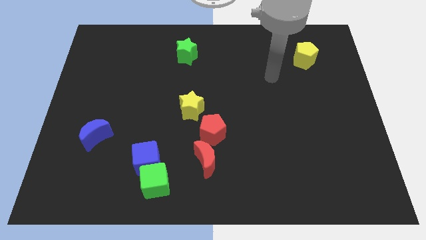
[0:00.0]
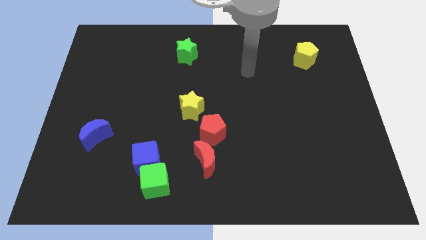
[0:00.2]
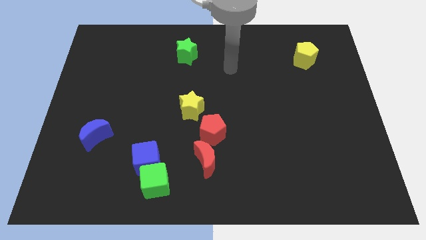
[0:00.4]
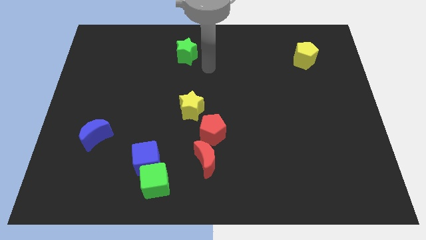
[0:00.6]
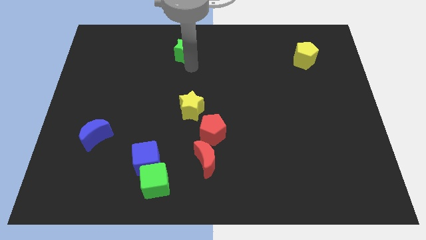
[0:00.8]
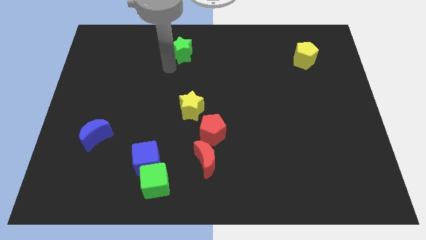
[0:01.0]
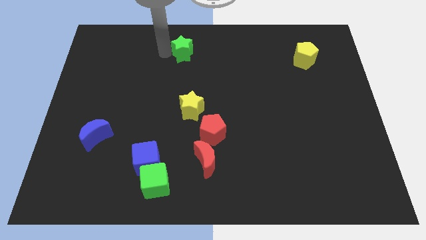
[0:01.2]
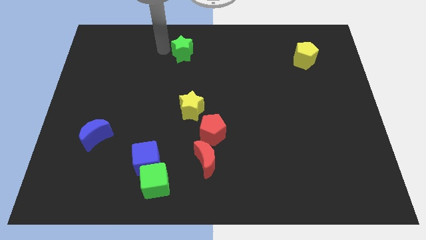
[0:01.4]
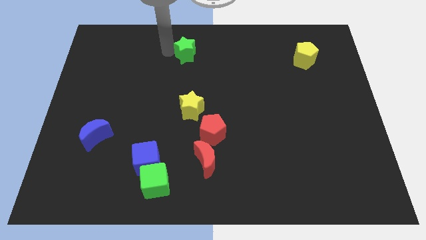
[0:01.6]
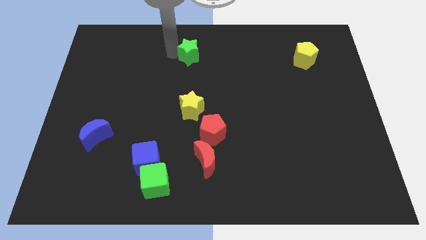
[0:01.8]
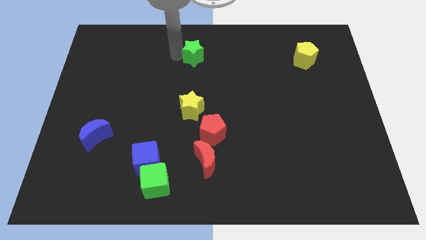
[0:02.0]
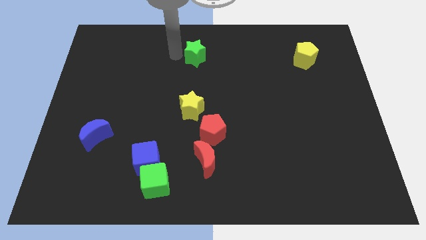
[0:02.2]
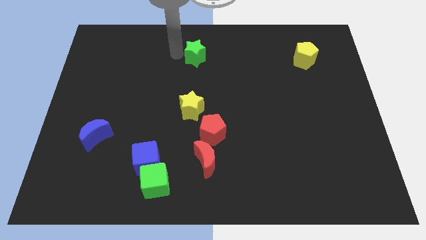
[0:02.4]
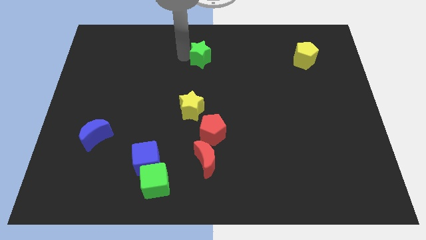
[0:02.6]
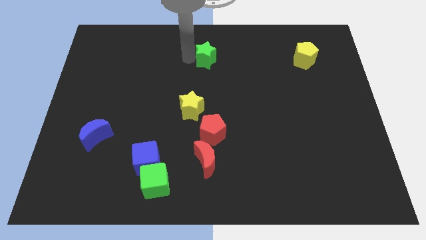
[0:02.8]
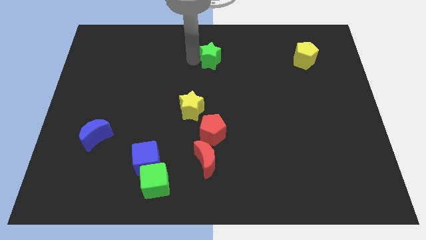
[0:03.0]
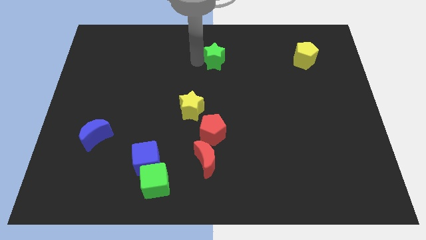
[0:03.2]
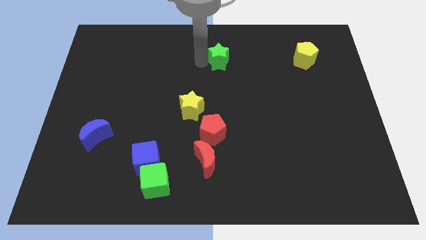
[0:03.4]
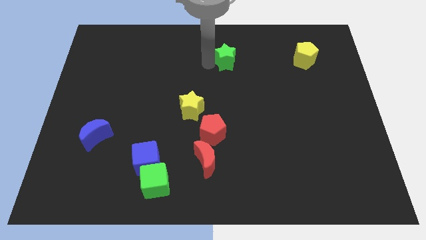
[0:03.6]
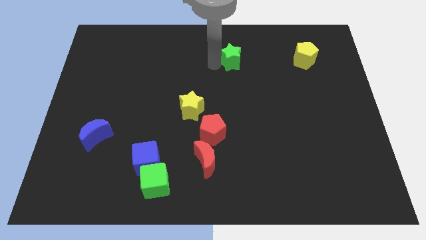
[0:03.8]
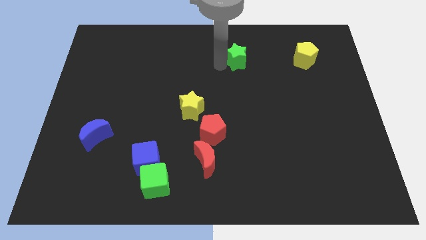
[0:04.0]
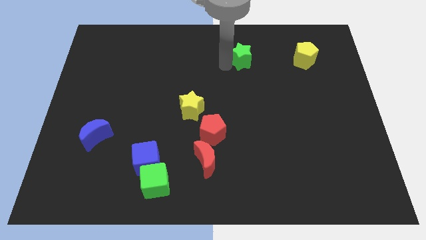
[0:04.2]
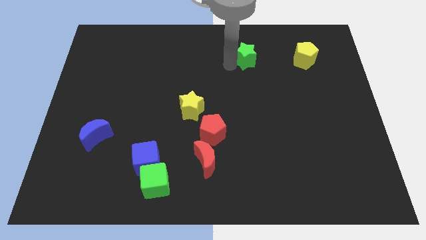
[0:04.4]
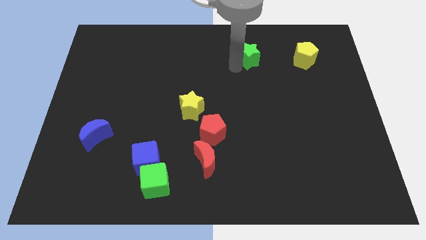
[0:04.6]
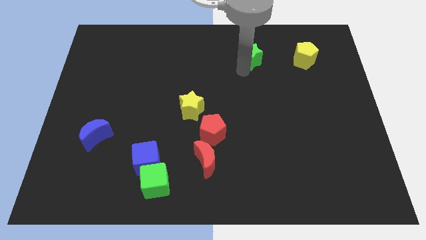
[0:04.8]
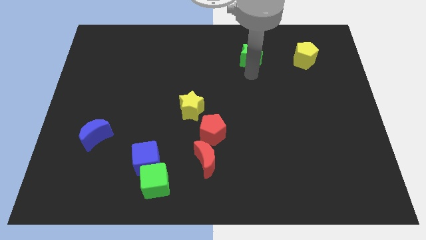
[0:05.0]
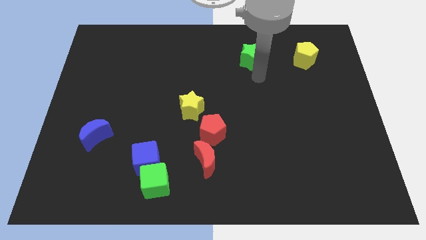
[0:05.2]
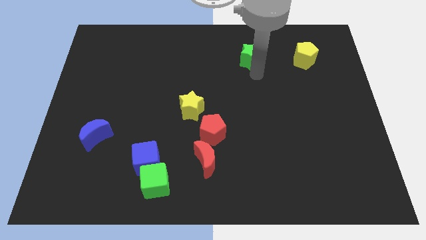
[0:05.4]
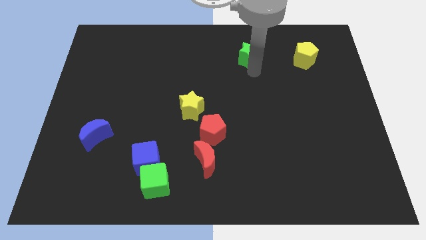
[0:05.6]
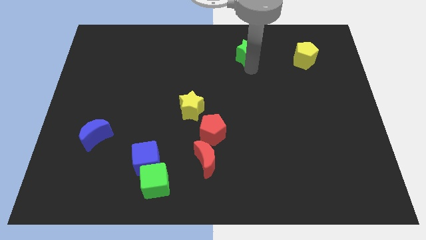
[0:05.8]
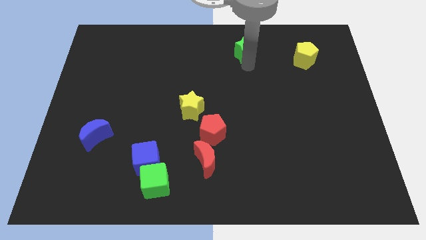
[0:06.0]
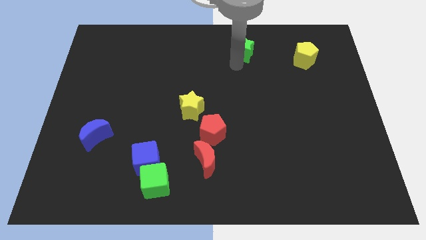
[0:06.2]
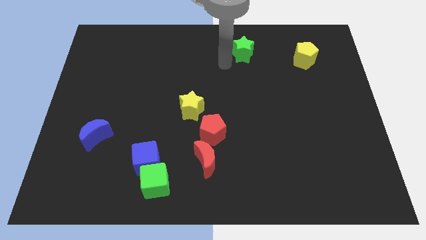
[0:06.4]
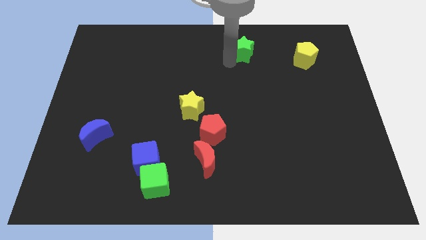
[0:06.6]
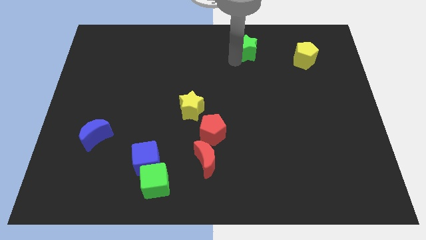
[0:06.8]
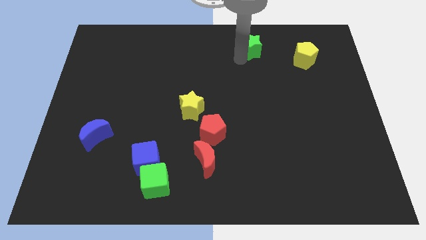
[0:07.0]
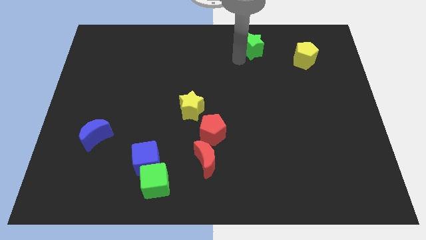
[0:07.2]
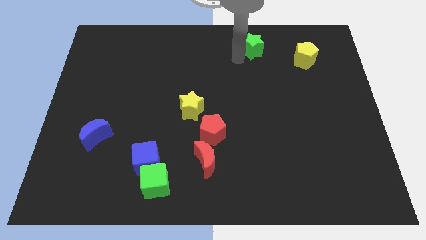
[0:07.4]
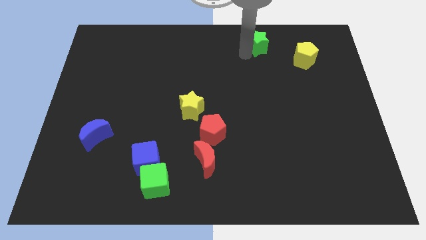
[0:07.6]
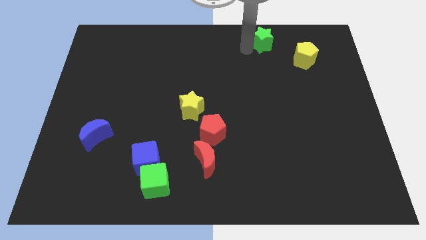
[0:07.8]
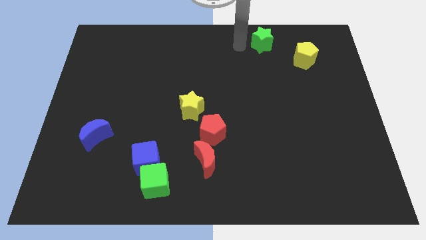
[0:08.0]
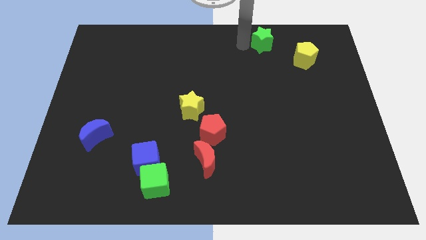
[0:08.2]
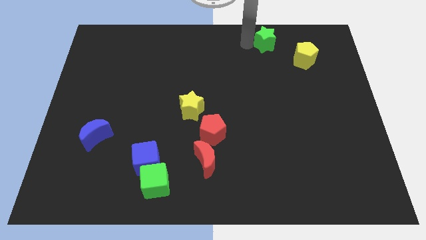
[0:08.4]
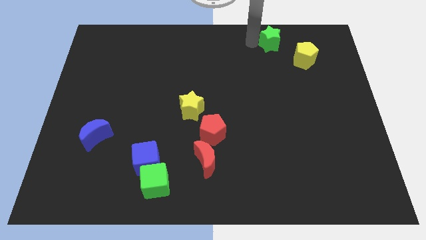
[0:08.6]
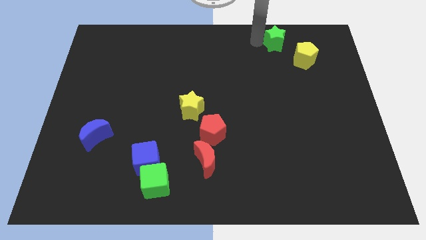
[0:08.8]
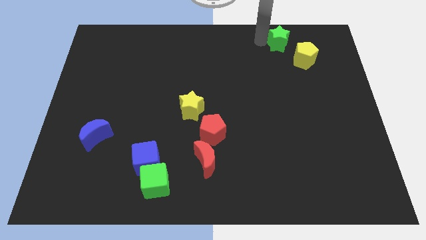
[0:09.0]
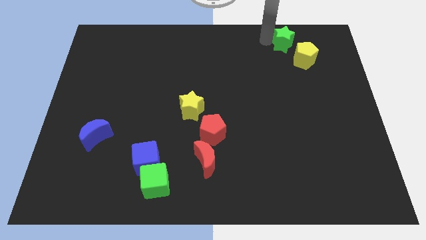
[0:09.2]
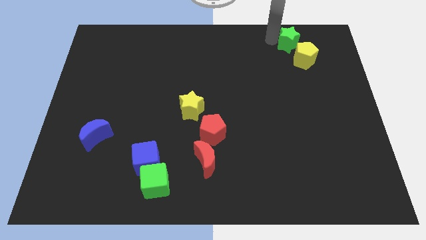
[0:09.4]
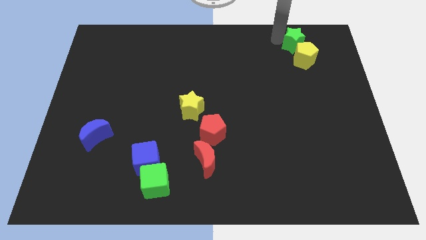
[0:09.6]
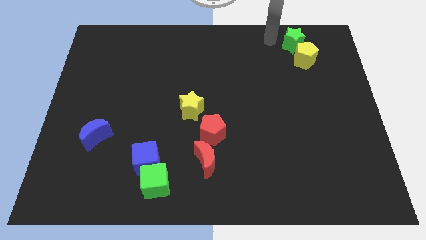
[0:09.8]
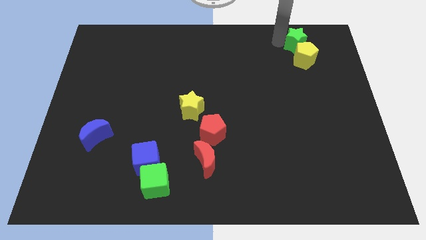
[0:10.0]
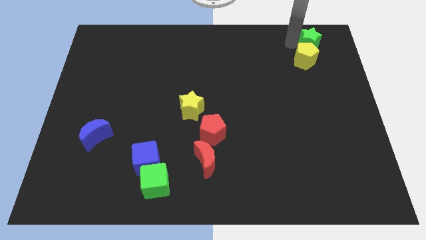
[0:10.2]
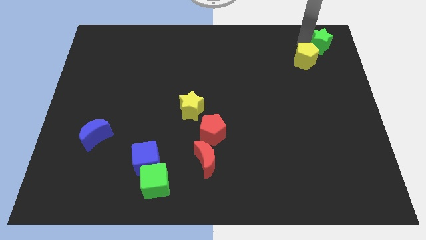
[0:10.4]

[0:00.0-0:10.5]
slide the green star to the top right of the board

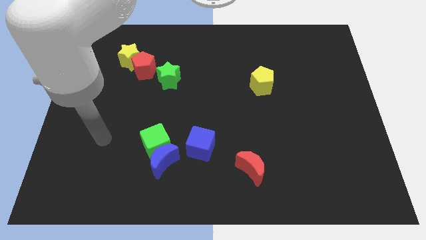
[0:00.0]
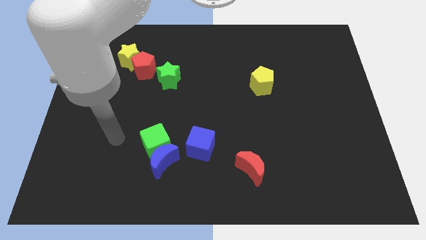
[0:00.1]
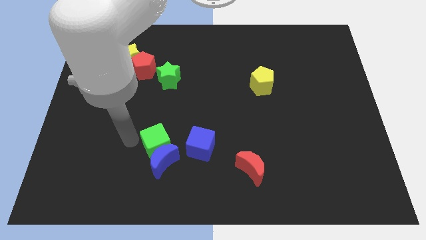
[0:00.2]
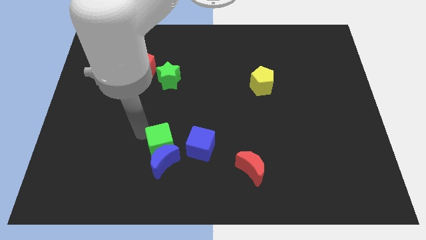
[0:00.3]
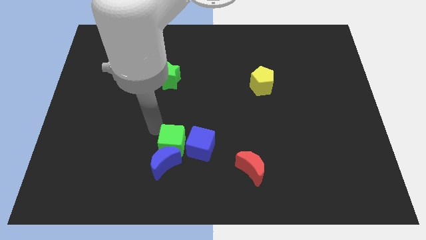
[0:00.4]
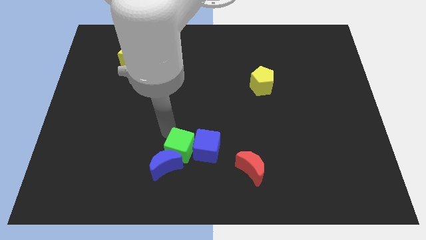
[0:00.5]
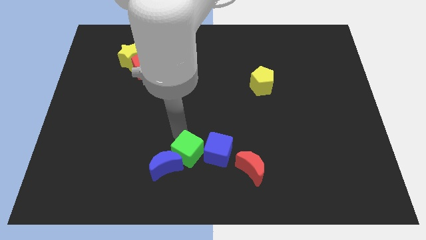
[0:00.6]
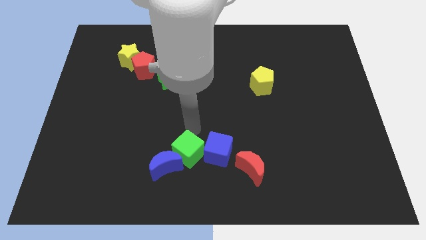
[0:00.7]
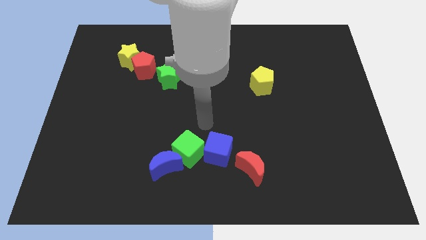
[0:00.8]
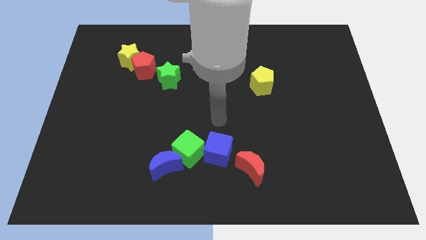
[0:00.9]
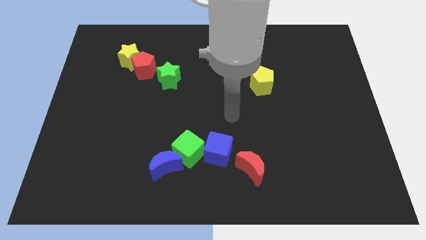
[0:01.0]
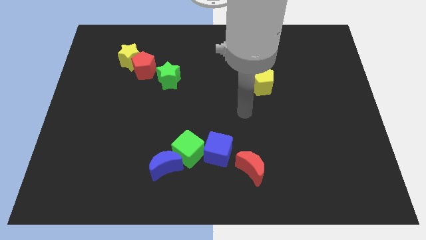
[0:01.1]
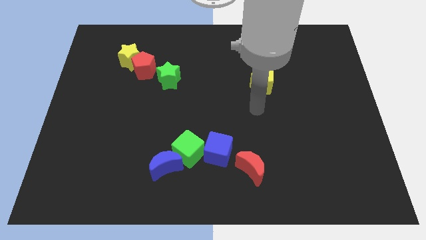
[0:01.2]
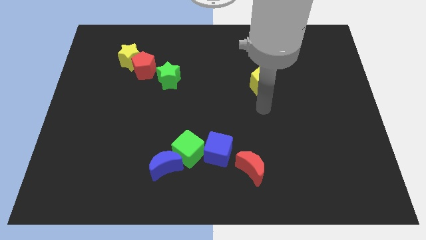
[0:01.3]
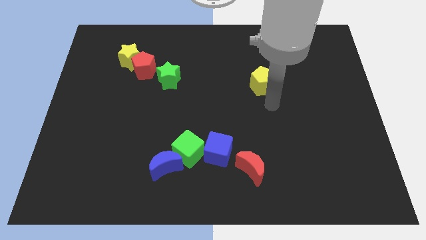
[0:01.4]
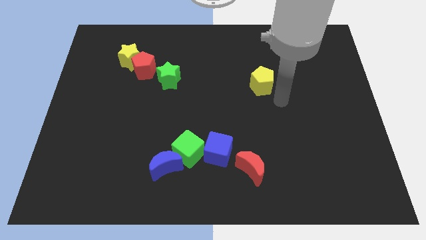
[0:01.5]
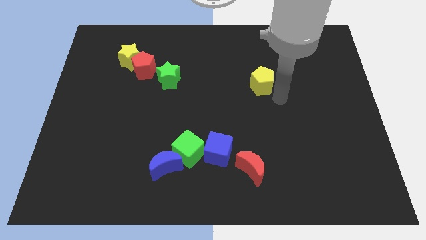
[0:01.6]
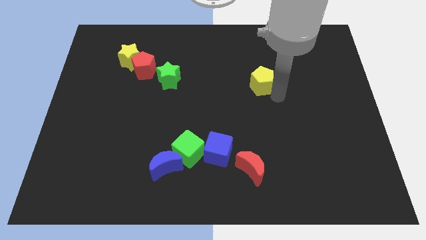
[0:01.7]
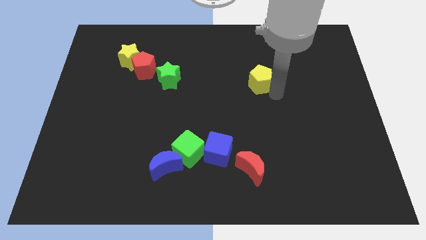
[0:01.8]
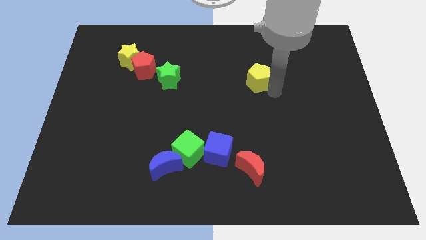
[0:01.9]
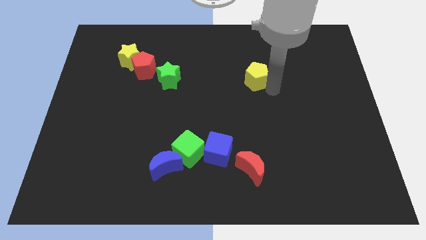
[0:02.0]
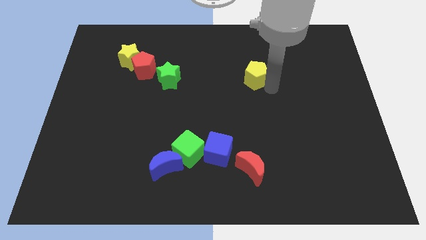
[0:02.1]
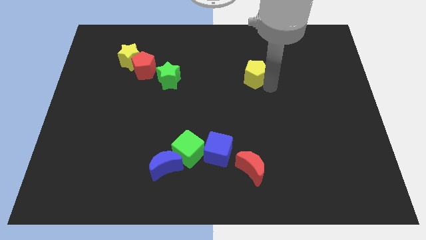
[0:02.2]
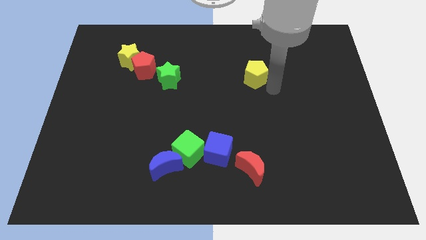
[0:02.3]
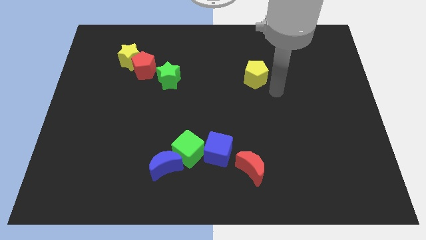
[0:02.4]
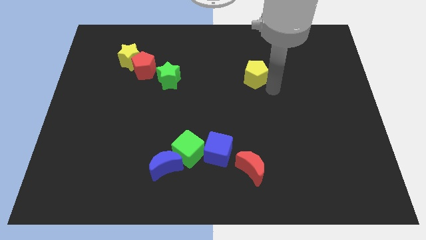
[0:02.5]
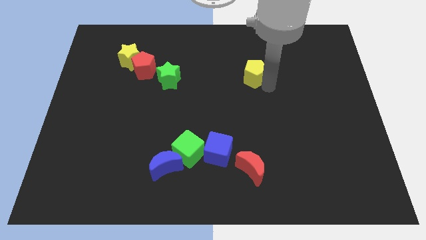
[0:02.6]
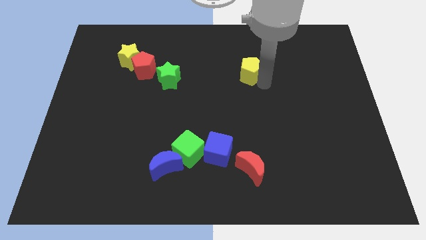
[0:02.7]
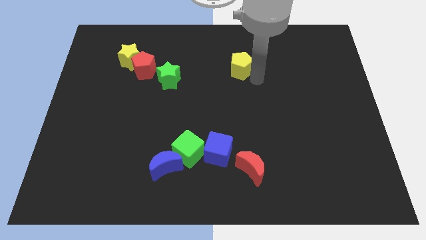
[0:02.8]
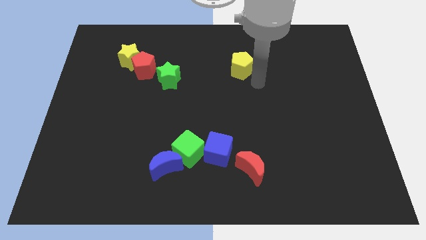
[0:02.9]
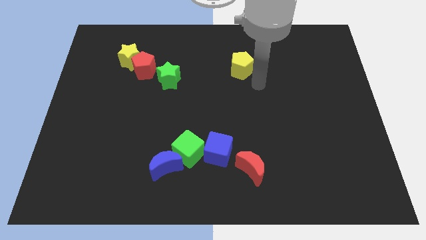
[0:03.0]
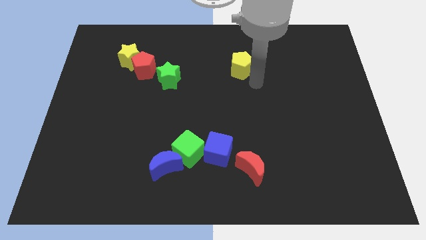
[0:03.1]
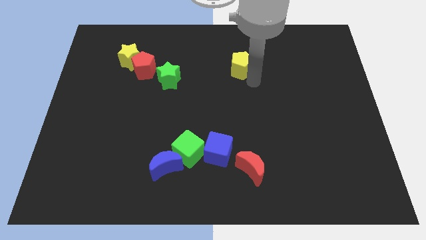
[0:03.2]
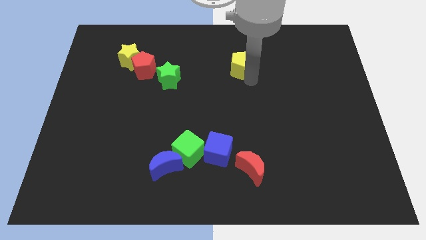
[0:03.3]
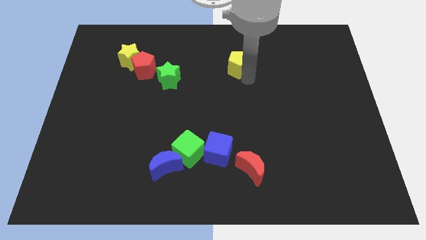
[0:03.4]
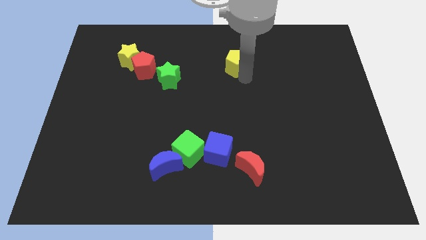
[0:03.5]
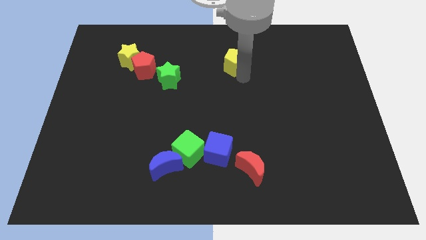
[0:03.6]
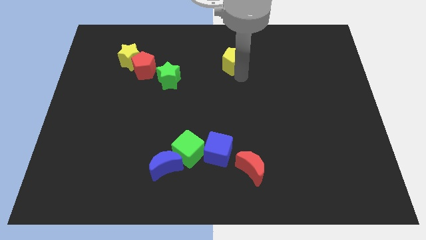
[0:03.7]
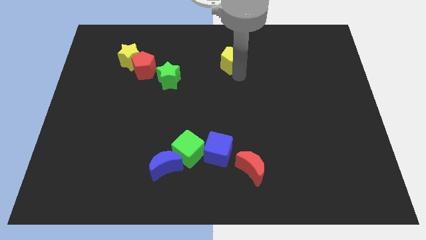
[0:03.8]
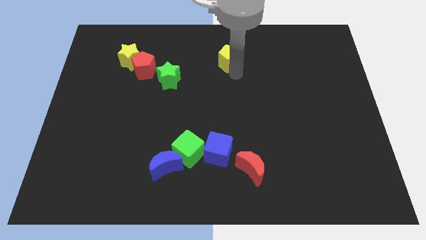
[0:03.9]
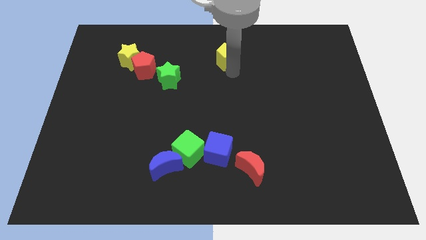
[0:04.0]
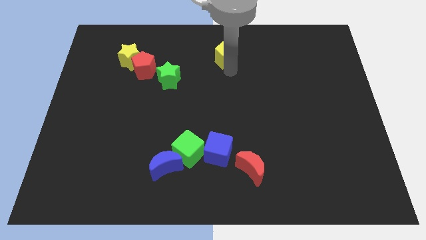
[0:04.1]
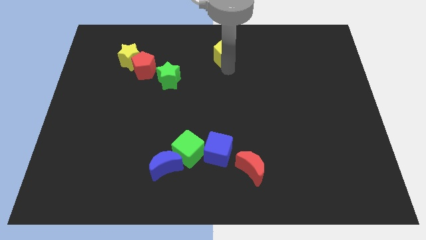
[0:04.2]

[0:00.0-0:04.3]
slide the yellow pentagon to the top side
